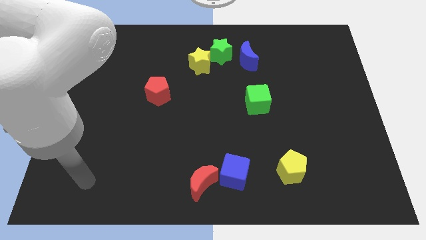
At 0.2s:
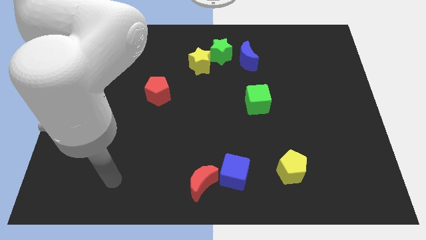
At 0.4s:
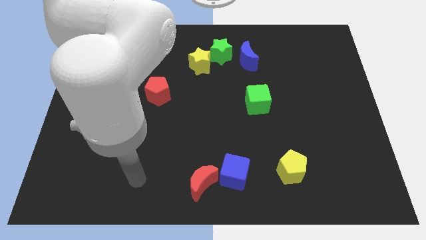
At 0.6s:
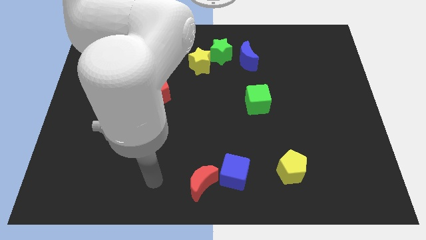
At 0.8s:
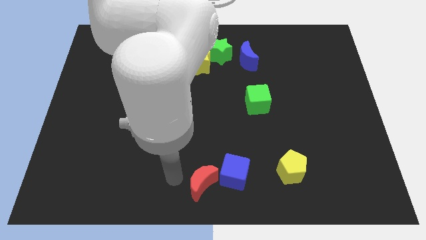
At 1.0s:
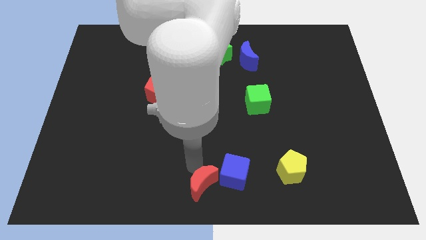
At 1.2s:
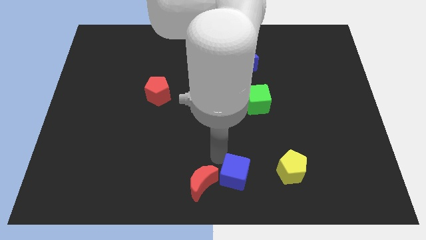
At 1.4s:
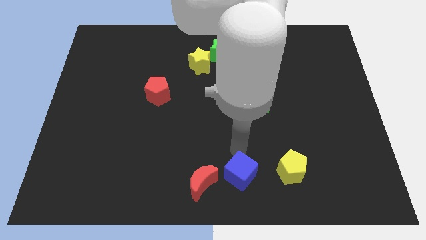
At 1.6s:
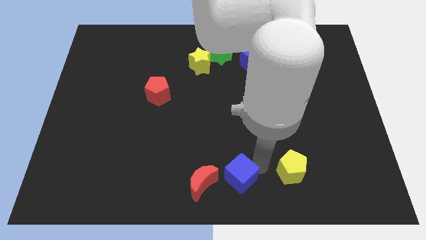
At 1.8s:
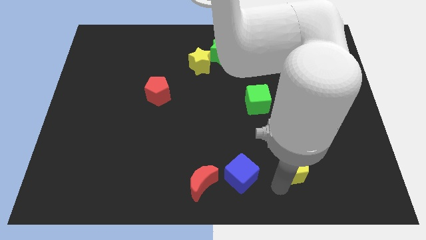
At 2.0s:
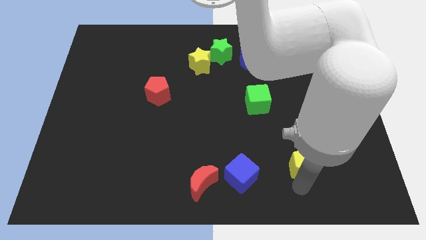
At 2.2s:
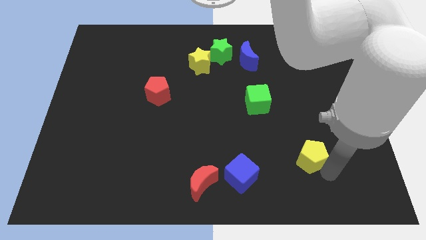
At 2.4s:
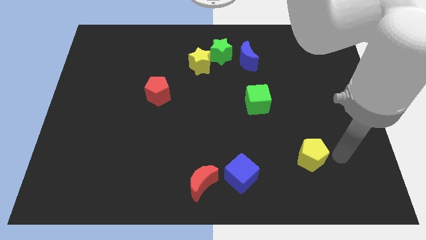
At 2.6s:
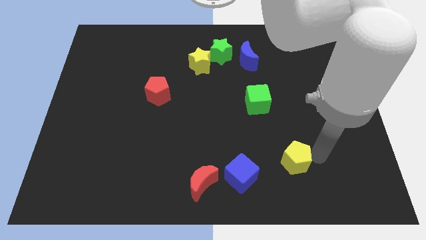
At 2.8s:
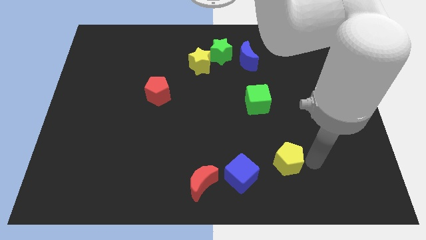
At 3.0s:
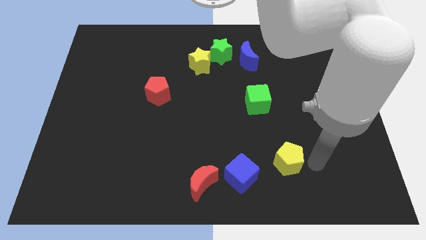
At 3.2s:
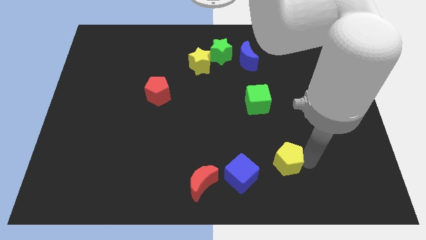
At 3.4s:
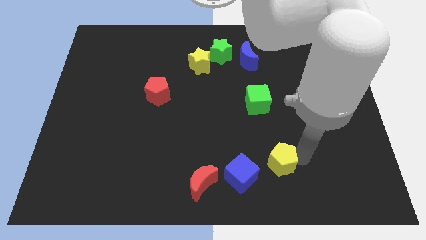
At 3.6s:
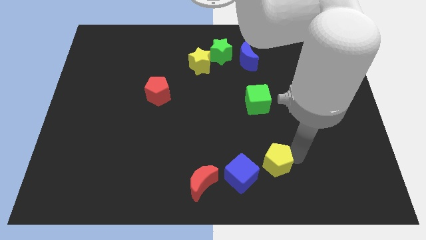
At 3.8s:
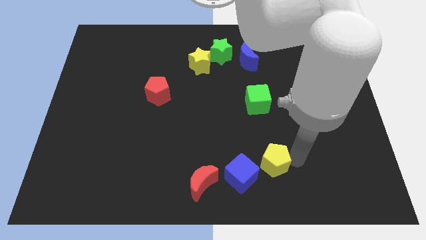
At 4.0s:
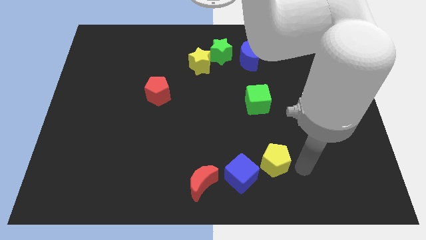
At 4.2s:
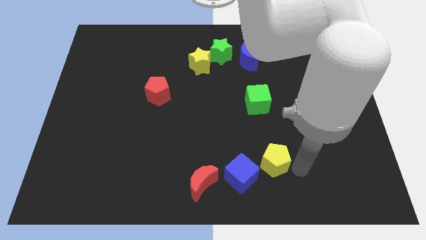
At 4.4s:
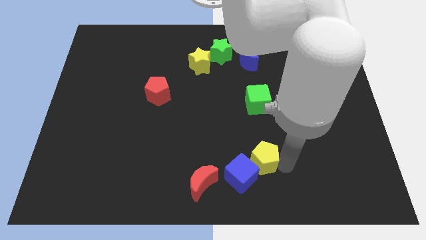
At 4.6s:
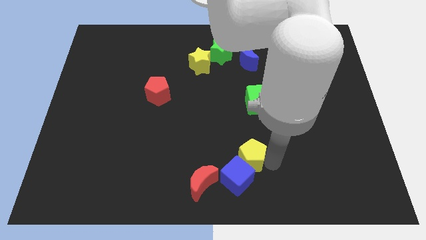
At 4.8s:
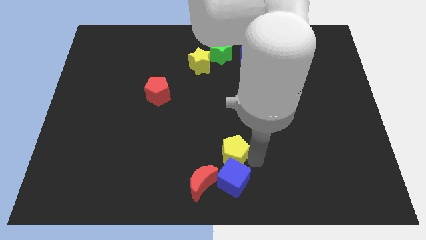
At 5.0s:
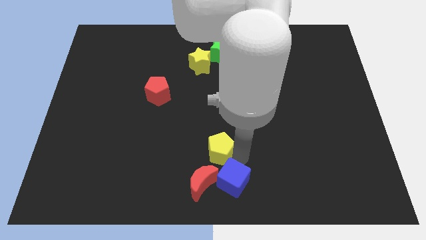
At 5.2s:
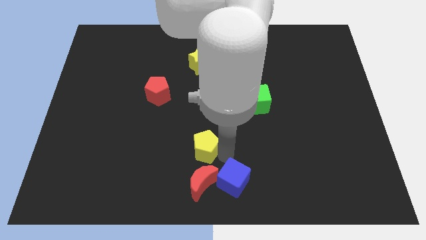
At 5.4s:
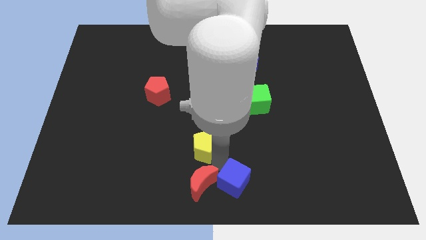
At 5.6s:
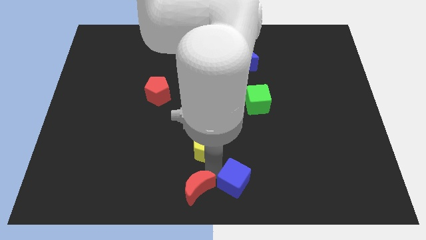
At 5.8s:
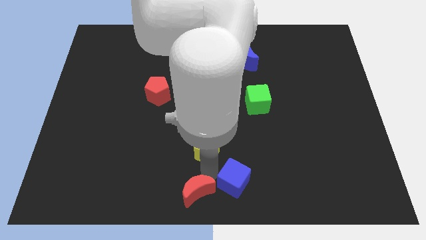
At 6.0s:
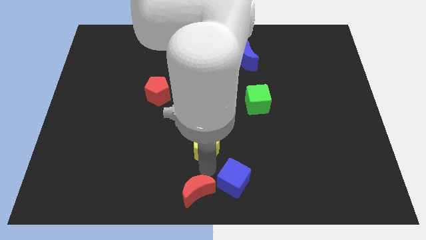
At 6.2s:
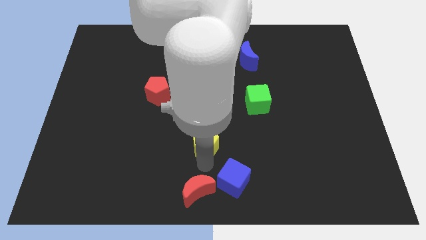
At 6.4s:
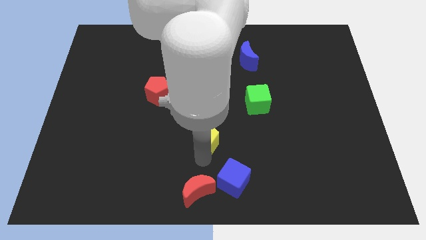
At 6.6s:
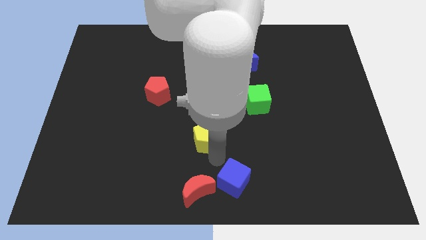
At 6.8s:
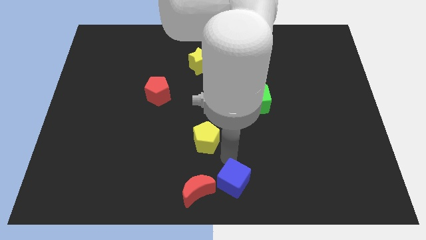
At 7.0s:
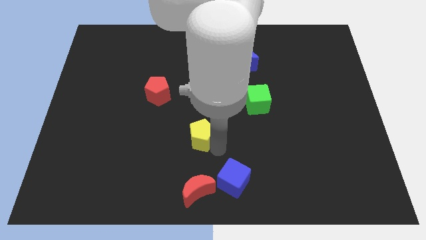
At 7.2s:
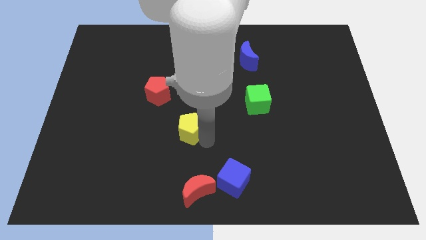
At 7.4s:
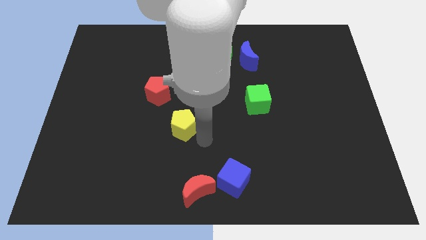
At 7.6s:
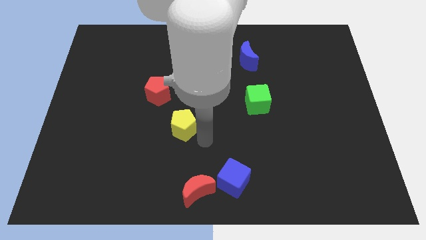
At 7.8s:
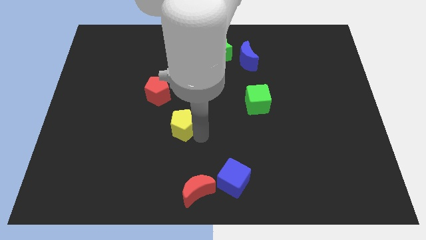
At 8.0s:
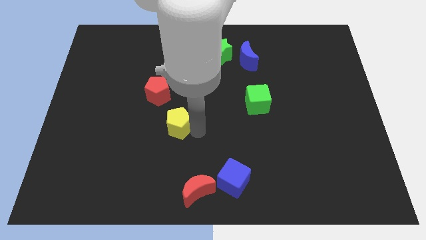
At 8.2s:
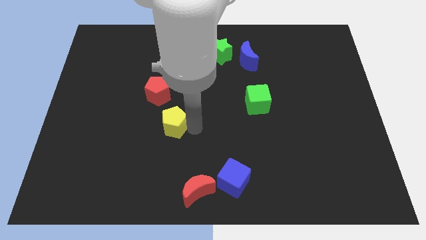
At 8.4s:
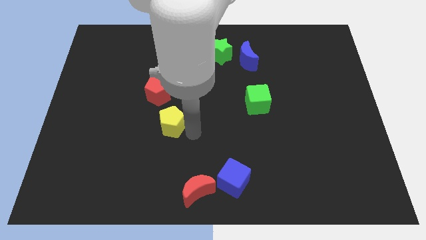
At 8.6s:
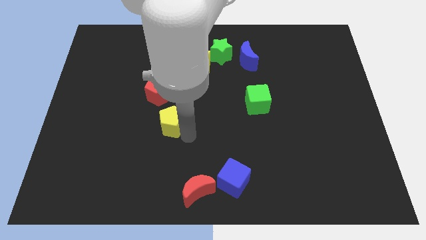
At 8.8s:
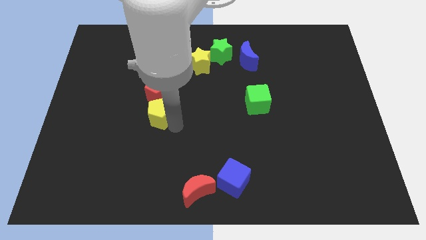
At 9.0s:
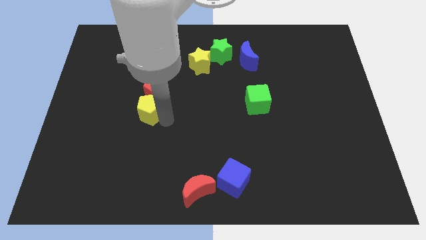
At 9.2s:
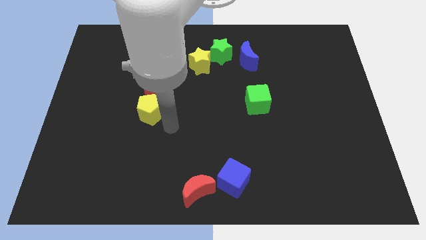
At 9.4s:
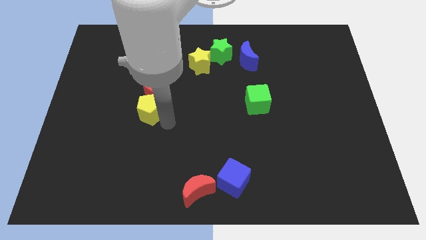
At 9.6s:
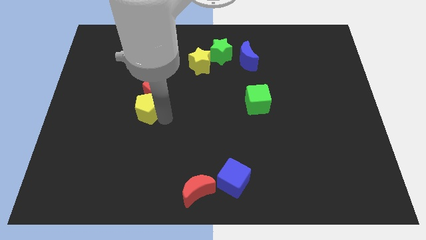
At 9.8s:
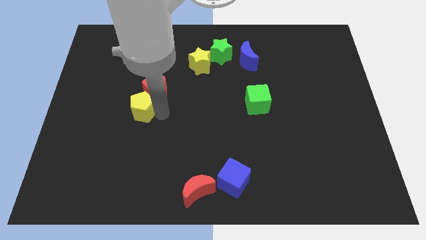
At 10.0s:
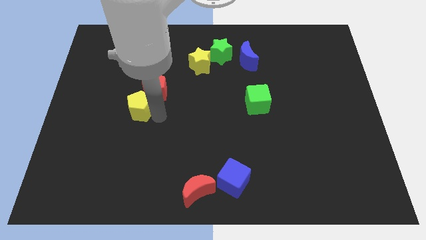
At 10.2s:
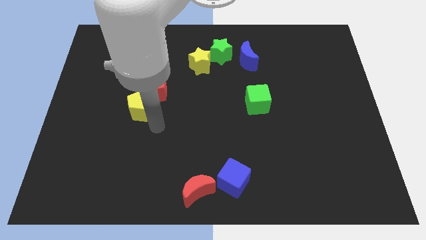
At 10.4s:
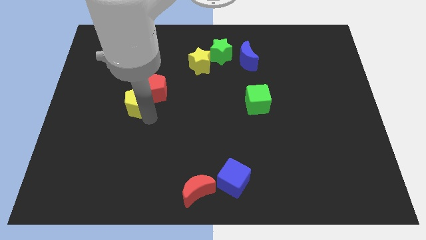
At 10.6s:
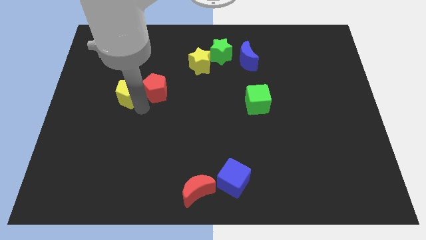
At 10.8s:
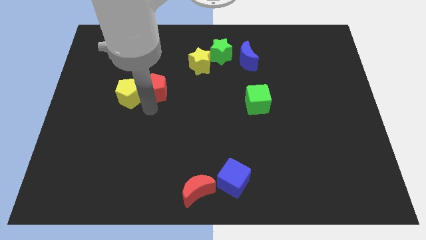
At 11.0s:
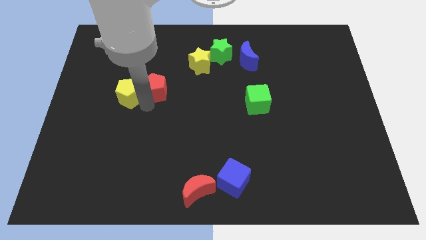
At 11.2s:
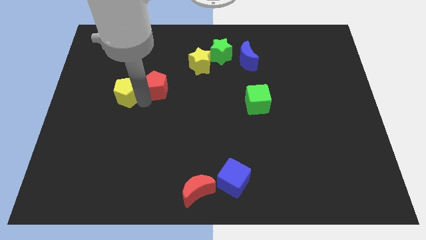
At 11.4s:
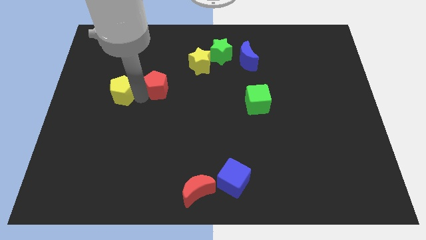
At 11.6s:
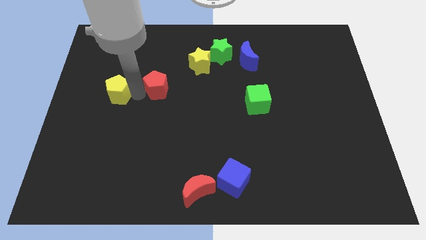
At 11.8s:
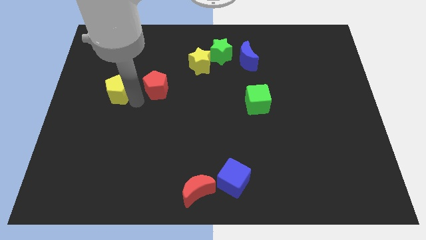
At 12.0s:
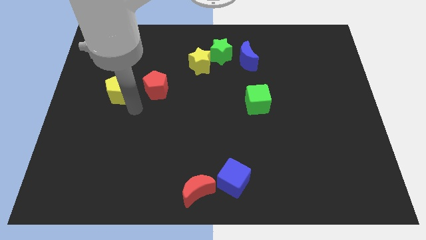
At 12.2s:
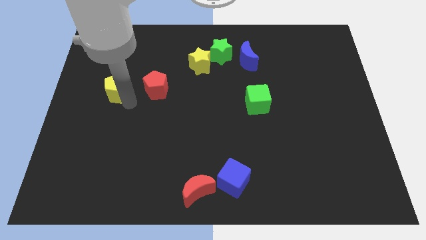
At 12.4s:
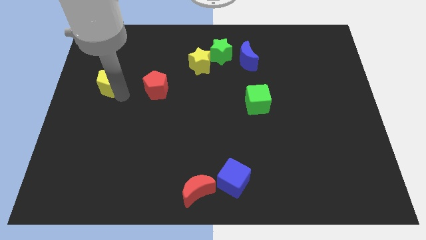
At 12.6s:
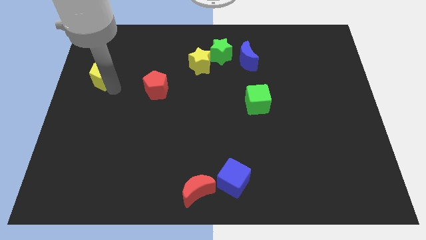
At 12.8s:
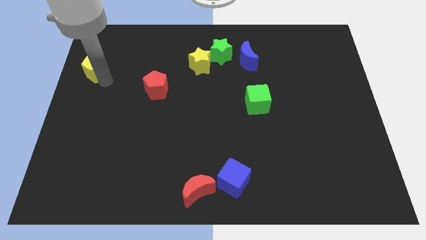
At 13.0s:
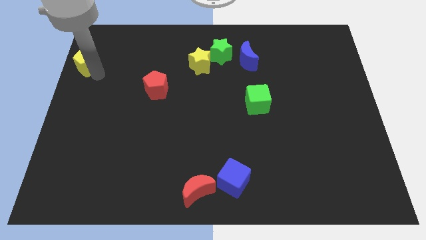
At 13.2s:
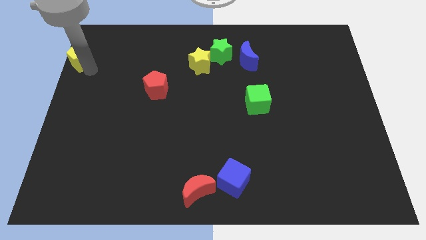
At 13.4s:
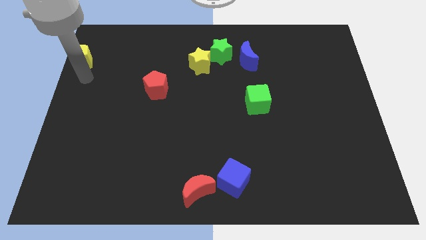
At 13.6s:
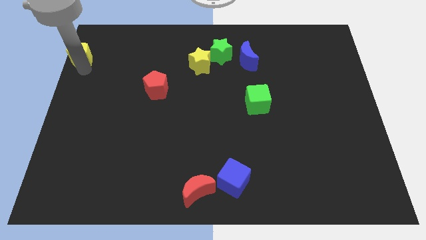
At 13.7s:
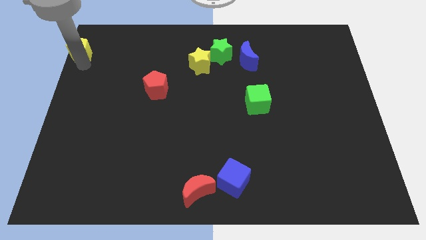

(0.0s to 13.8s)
put the yellow pentagon to the top left of the board
